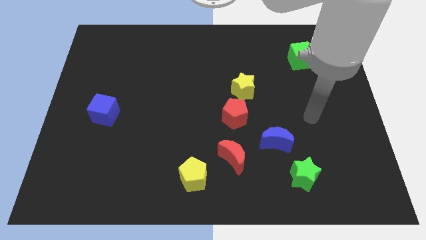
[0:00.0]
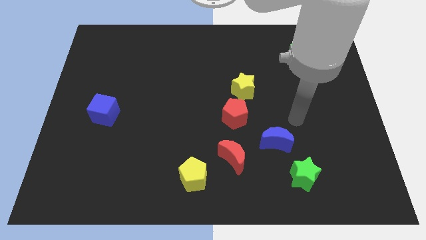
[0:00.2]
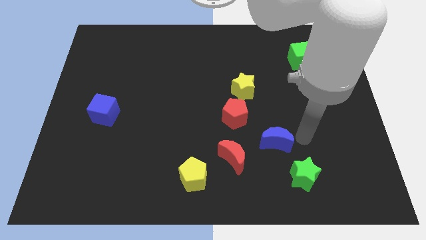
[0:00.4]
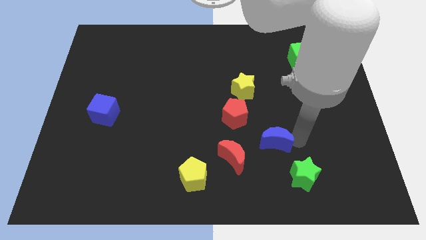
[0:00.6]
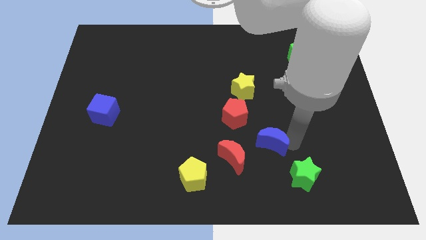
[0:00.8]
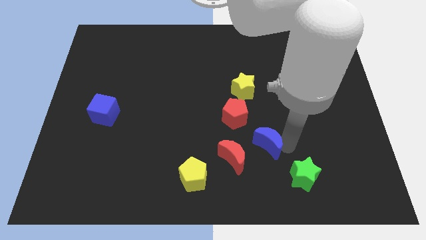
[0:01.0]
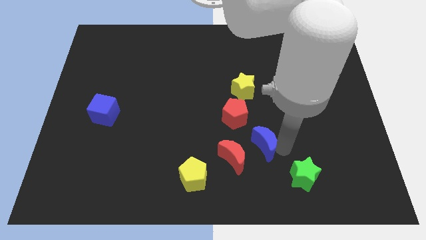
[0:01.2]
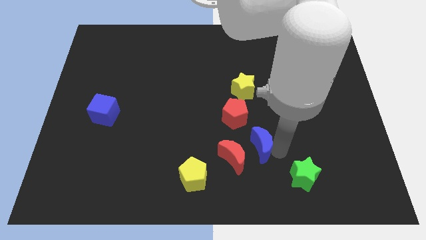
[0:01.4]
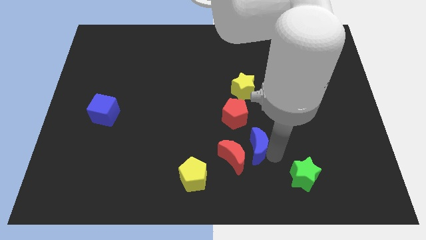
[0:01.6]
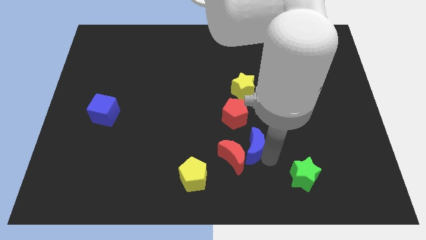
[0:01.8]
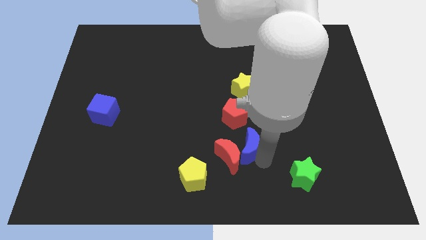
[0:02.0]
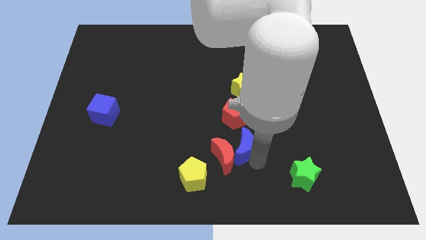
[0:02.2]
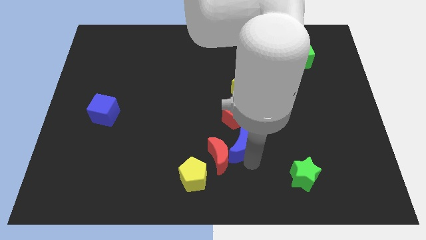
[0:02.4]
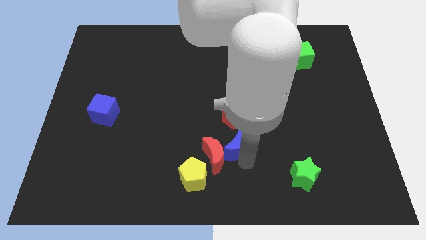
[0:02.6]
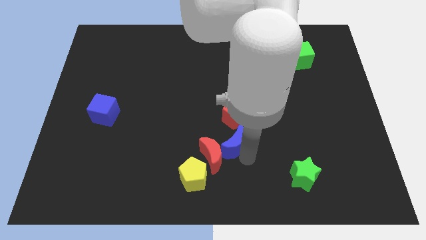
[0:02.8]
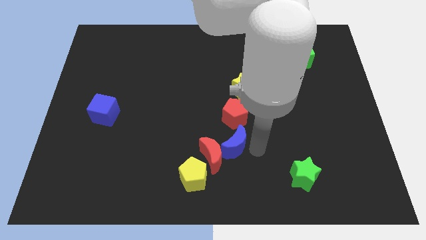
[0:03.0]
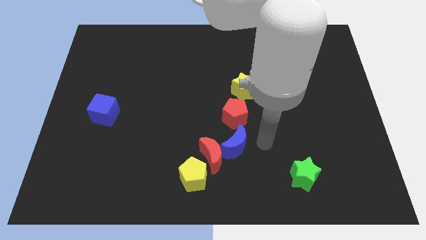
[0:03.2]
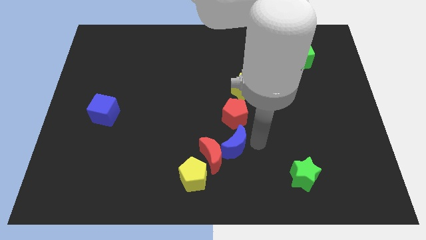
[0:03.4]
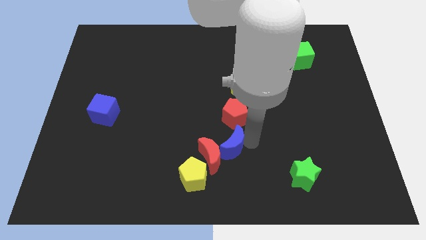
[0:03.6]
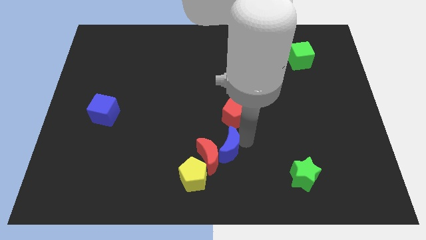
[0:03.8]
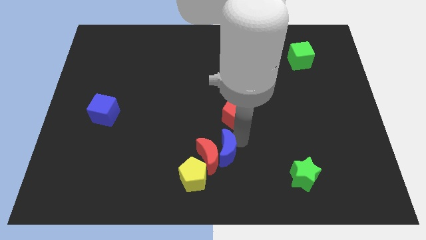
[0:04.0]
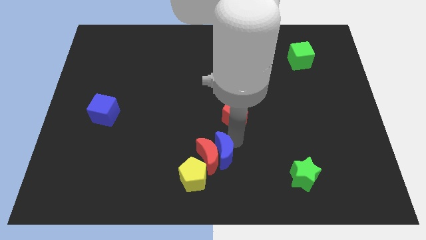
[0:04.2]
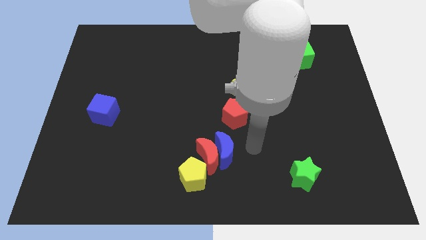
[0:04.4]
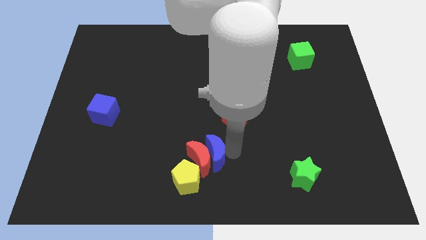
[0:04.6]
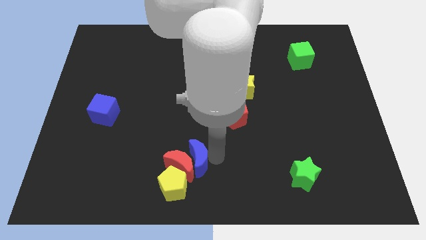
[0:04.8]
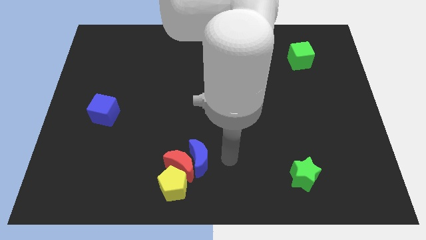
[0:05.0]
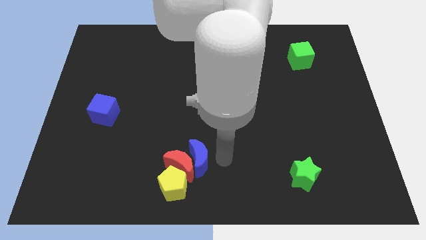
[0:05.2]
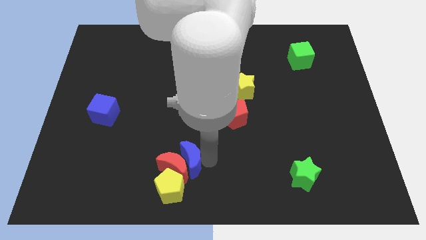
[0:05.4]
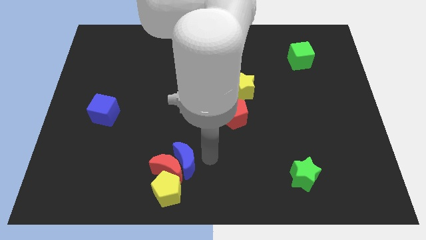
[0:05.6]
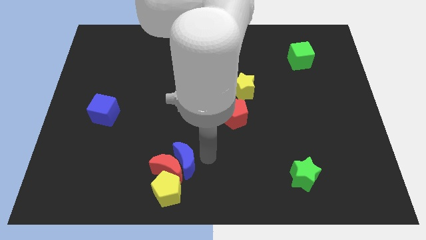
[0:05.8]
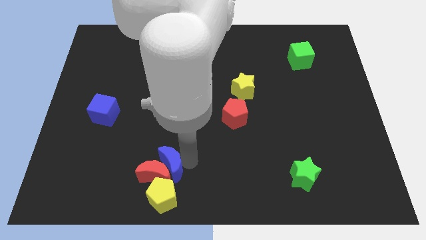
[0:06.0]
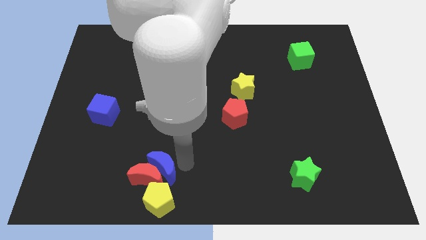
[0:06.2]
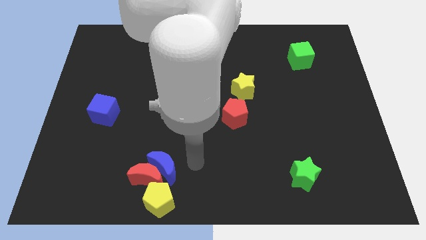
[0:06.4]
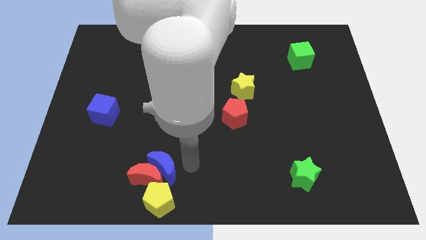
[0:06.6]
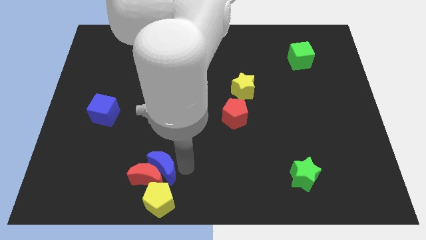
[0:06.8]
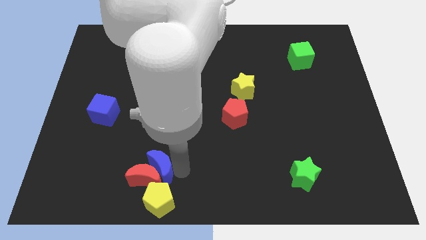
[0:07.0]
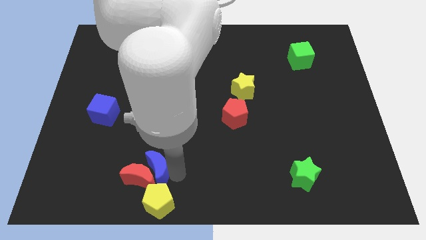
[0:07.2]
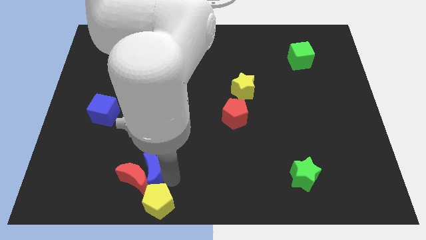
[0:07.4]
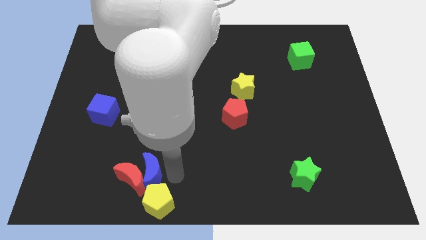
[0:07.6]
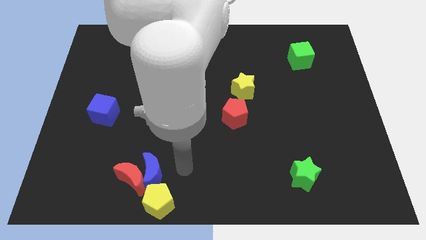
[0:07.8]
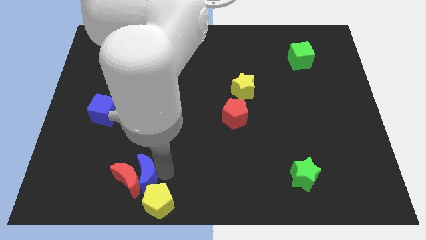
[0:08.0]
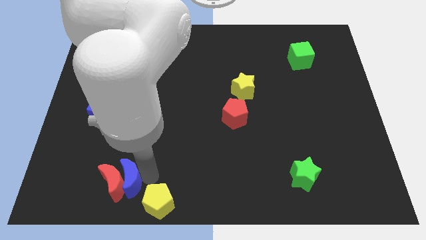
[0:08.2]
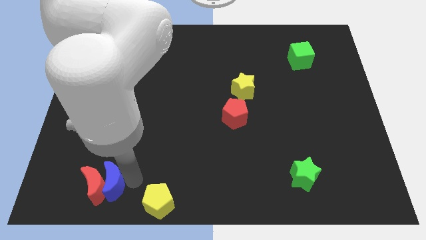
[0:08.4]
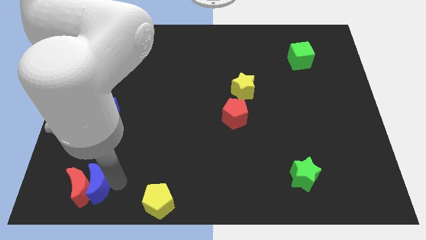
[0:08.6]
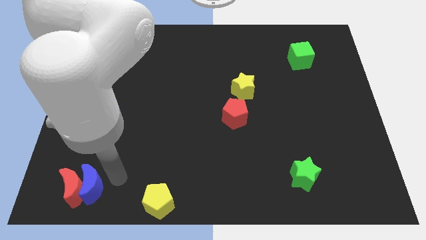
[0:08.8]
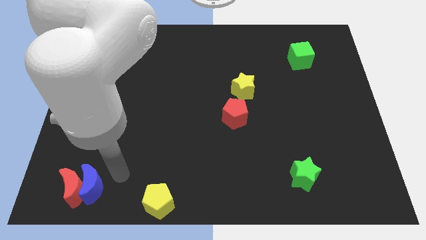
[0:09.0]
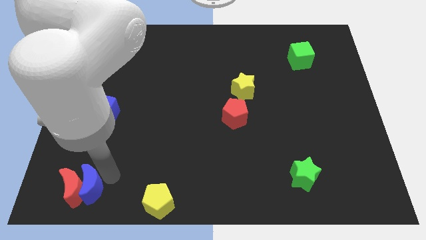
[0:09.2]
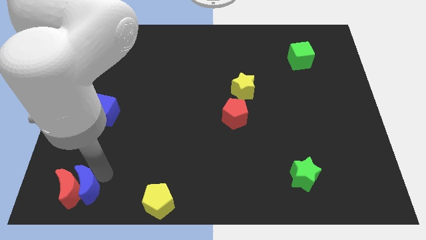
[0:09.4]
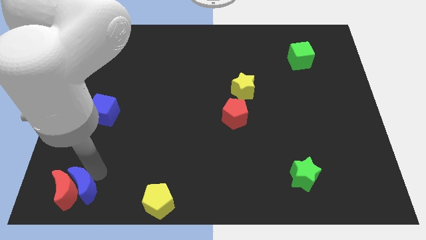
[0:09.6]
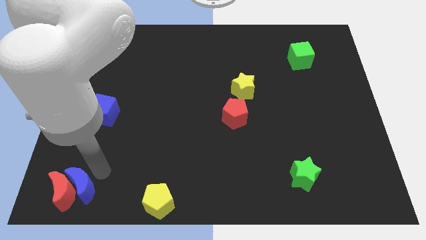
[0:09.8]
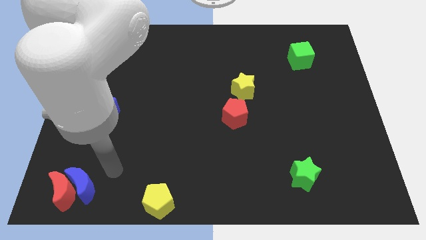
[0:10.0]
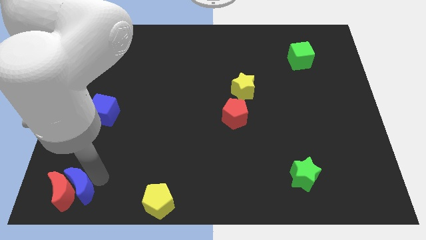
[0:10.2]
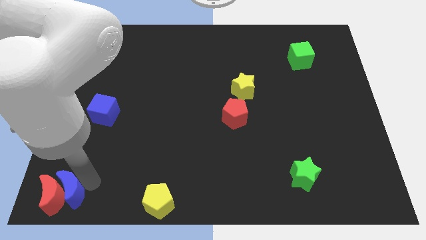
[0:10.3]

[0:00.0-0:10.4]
push the blue moon to the bottom left

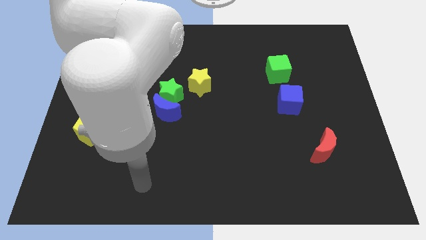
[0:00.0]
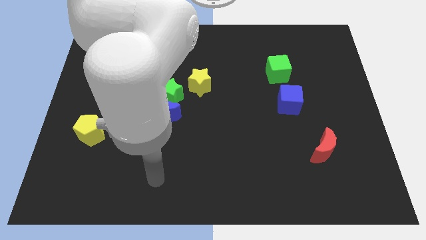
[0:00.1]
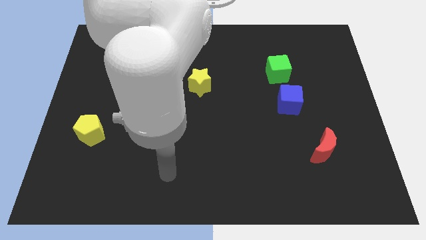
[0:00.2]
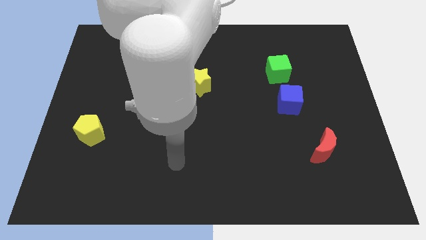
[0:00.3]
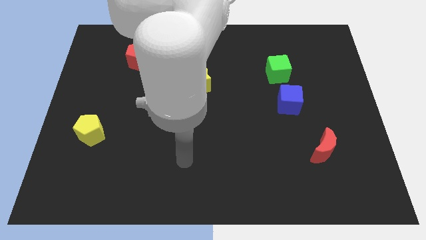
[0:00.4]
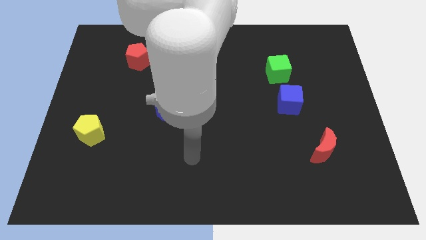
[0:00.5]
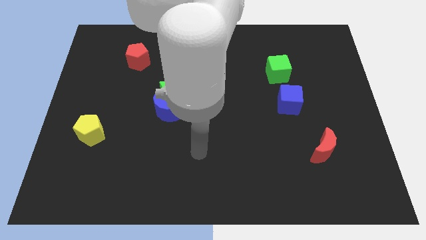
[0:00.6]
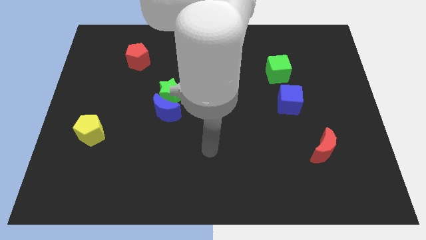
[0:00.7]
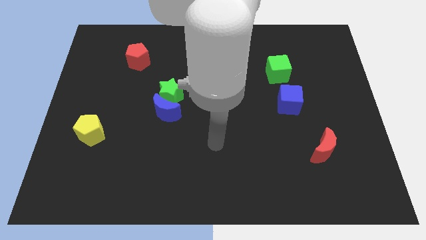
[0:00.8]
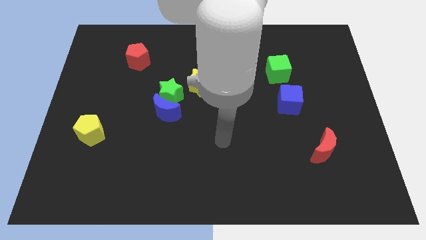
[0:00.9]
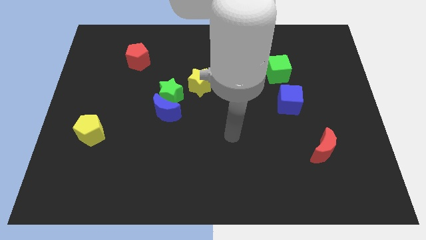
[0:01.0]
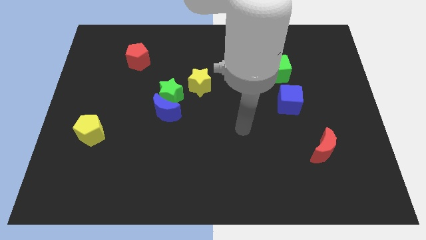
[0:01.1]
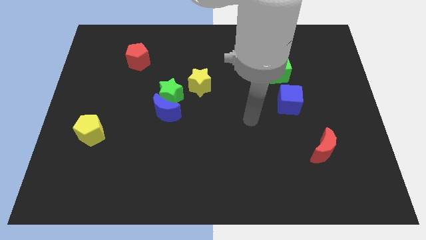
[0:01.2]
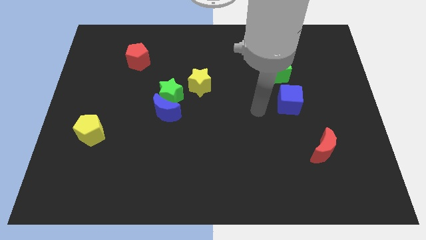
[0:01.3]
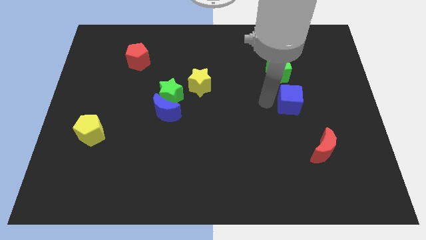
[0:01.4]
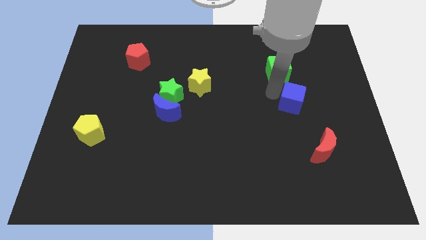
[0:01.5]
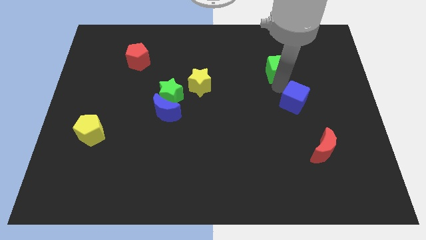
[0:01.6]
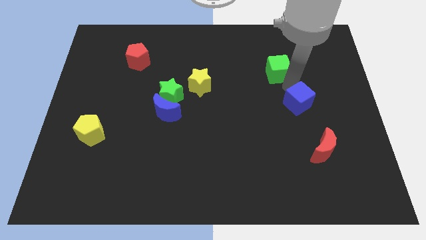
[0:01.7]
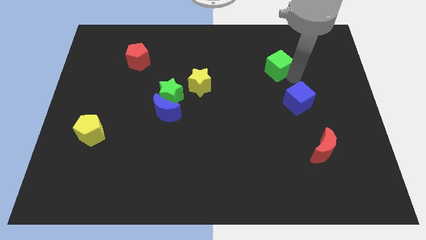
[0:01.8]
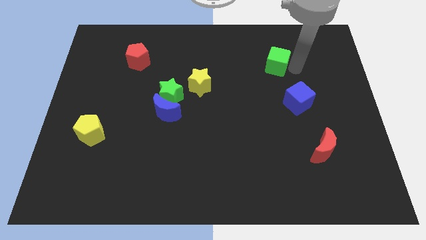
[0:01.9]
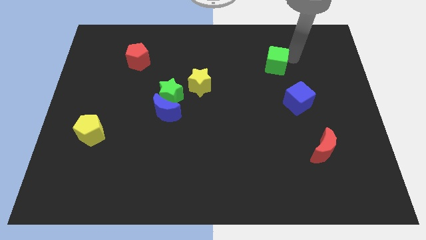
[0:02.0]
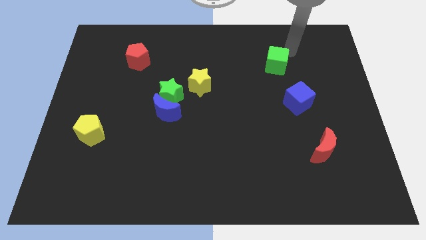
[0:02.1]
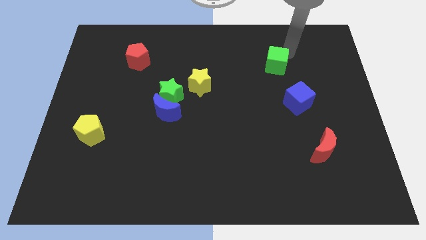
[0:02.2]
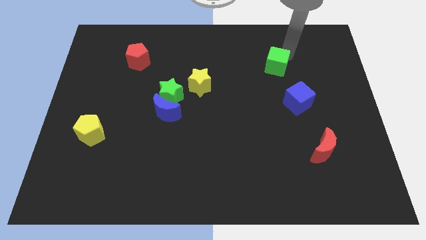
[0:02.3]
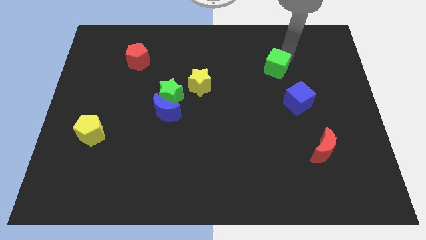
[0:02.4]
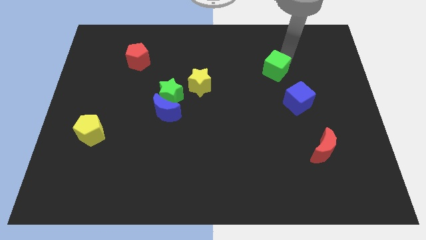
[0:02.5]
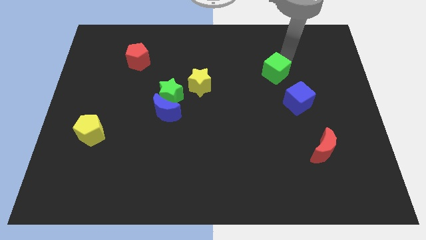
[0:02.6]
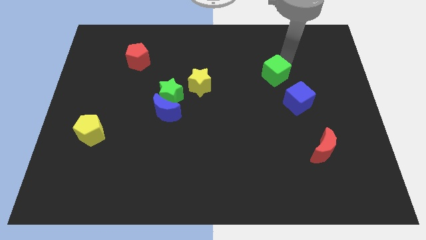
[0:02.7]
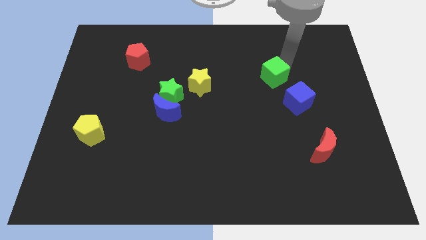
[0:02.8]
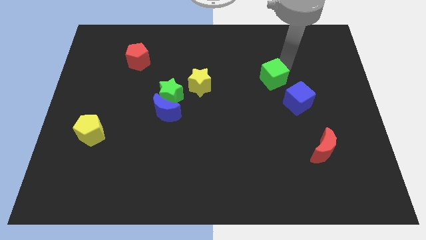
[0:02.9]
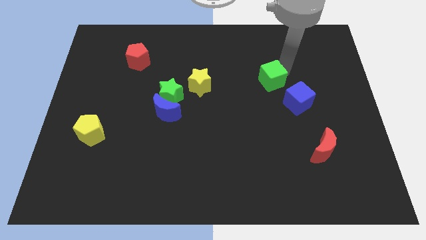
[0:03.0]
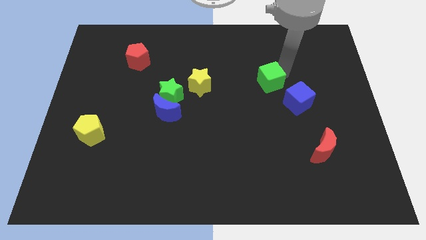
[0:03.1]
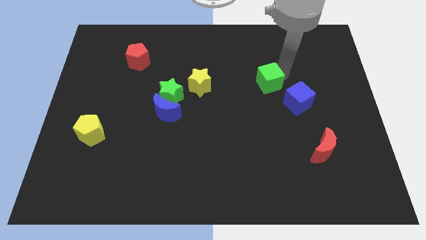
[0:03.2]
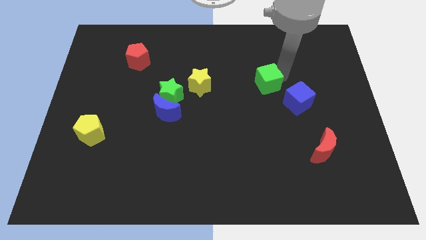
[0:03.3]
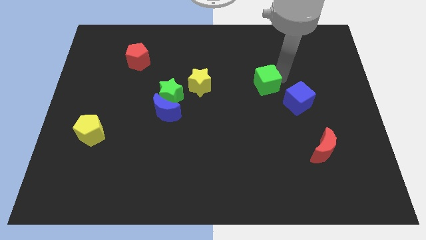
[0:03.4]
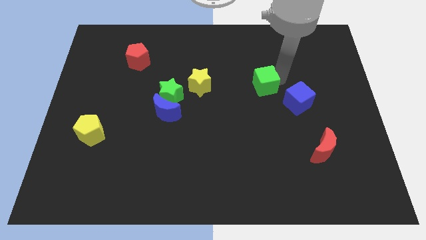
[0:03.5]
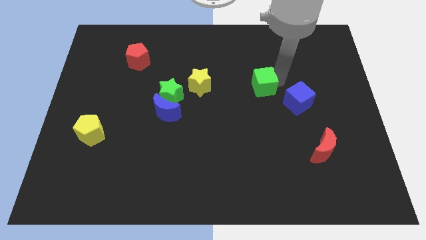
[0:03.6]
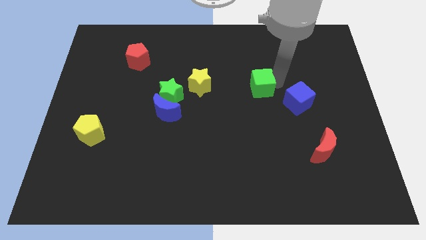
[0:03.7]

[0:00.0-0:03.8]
slide the green cube to the middle of the board
